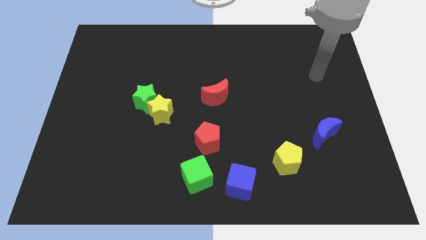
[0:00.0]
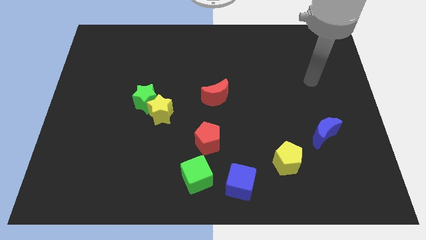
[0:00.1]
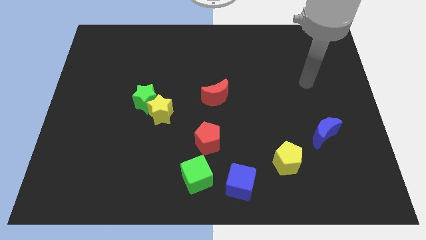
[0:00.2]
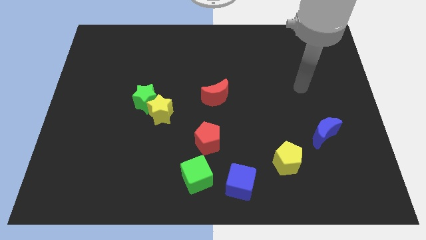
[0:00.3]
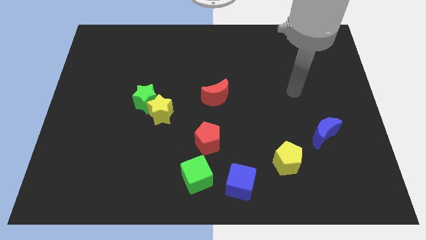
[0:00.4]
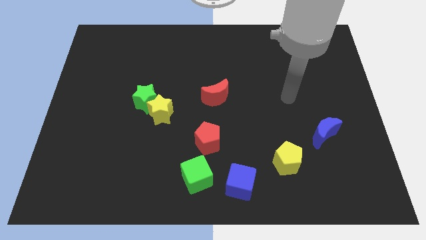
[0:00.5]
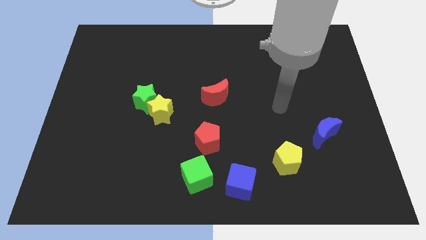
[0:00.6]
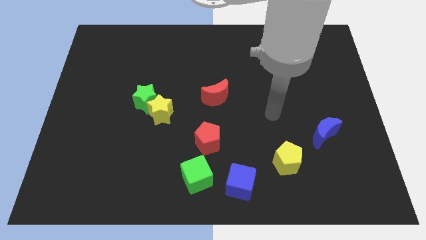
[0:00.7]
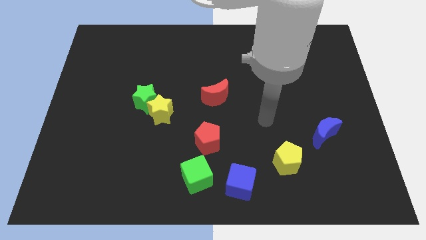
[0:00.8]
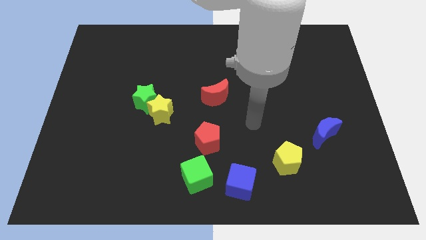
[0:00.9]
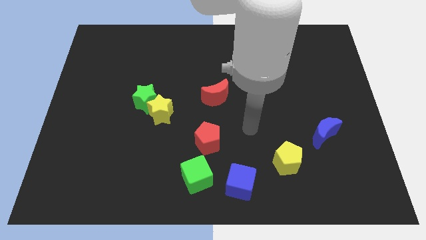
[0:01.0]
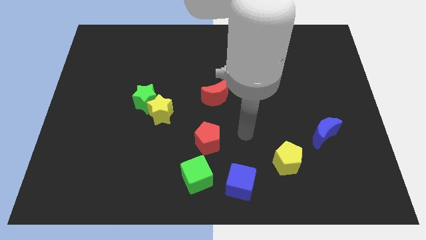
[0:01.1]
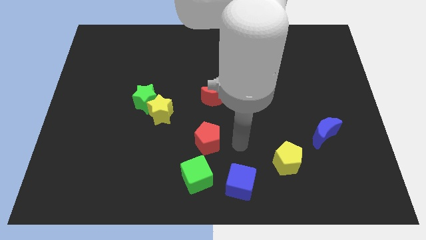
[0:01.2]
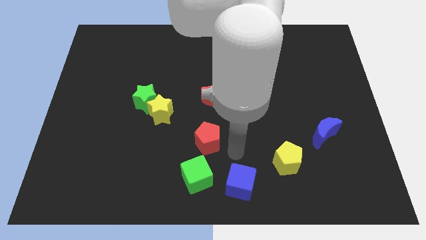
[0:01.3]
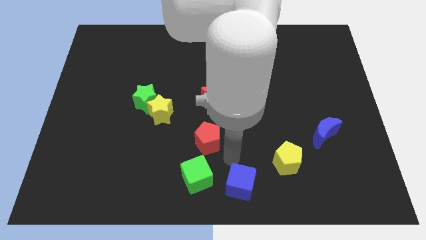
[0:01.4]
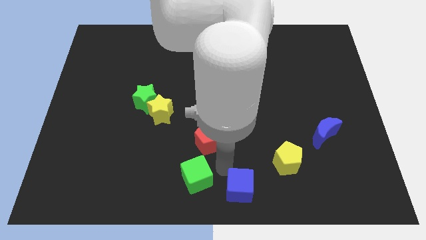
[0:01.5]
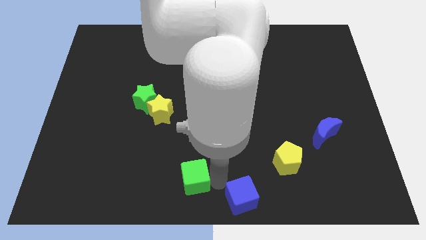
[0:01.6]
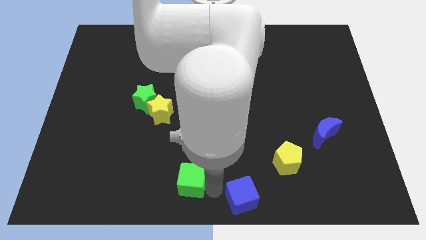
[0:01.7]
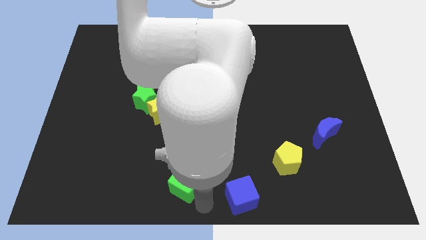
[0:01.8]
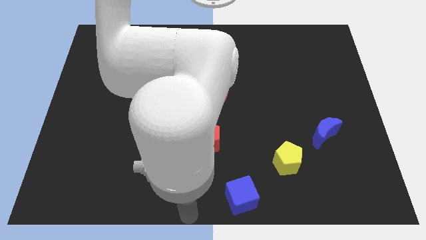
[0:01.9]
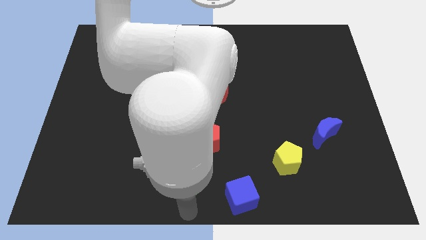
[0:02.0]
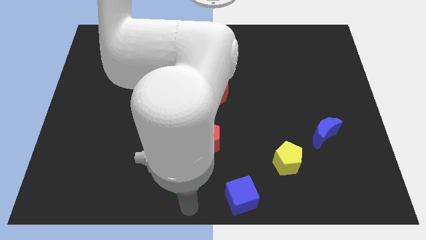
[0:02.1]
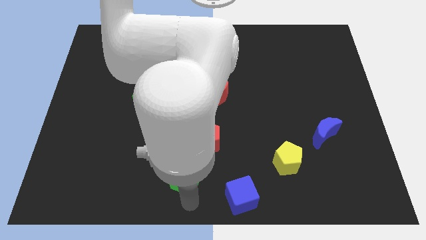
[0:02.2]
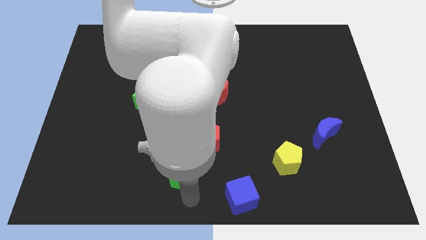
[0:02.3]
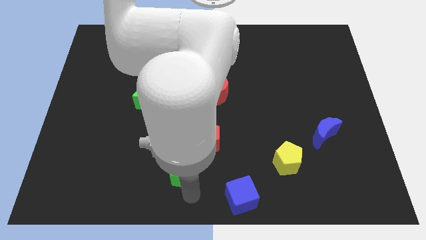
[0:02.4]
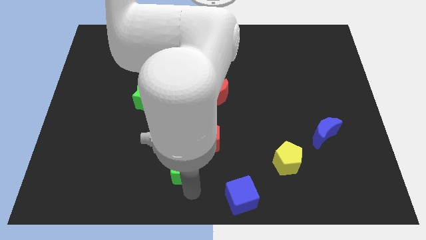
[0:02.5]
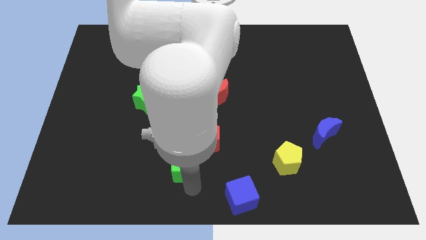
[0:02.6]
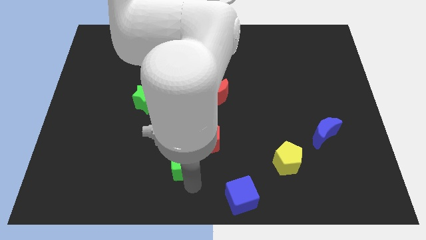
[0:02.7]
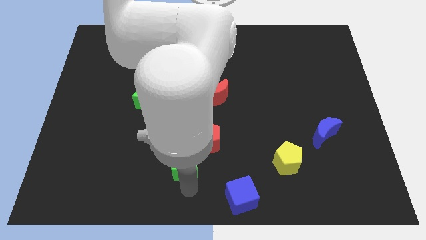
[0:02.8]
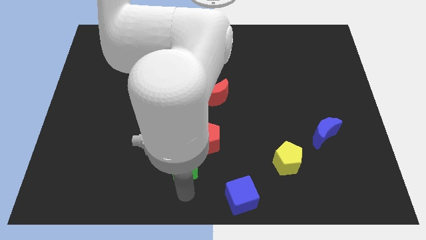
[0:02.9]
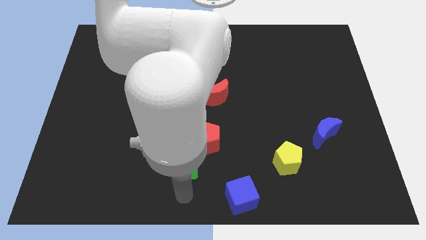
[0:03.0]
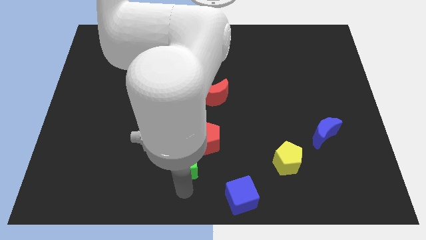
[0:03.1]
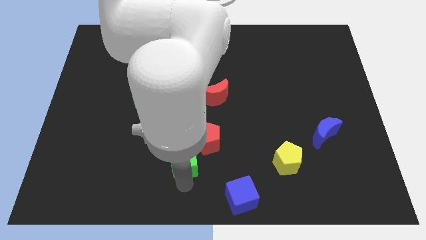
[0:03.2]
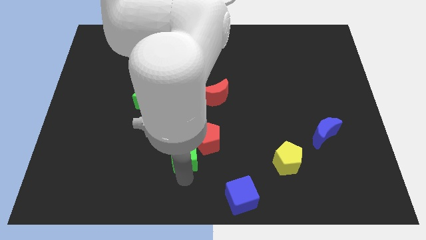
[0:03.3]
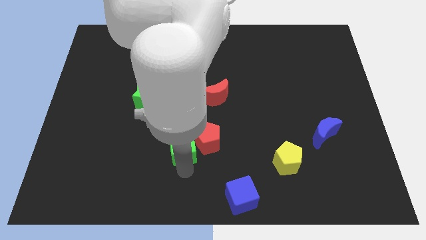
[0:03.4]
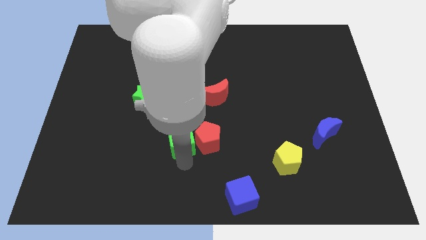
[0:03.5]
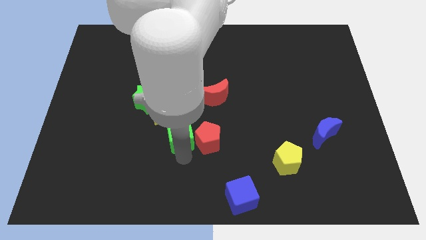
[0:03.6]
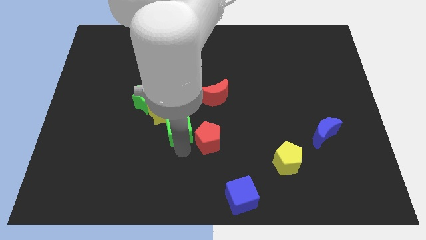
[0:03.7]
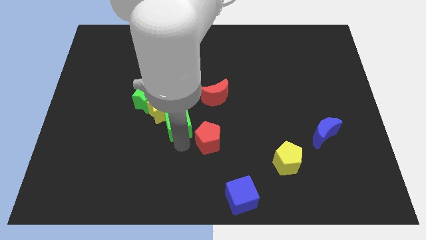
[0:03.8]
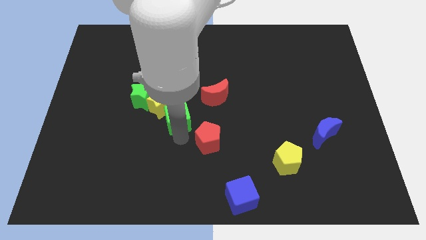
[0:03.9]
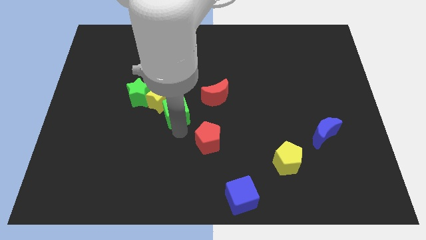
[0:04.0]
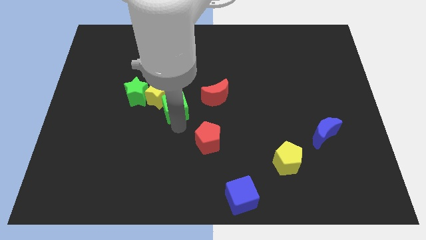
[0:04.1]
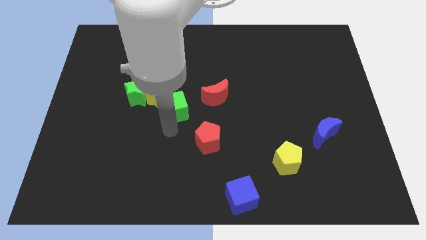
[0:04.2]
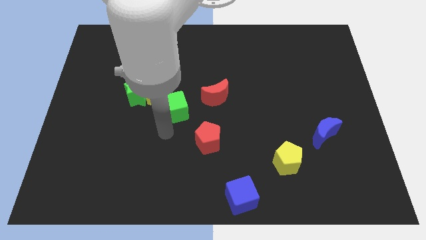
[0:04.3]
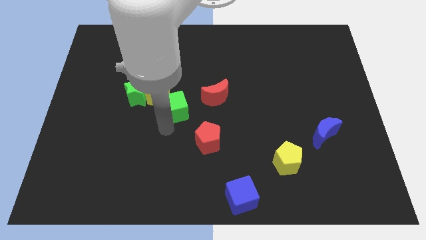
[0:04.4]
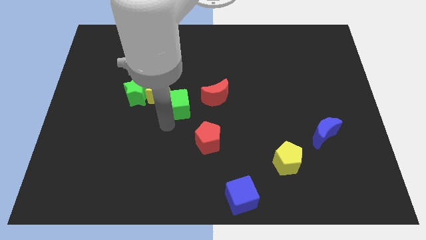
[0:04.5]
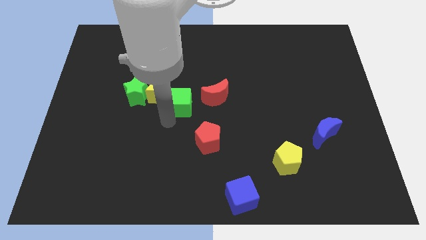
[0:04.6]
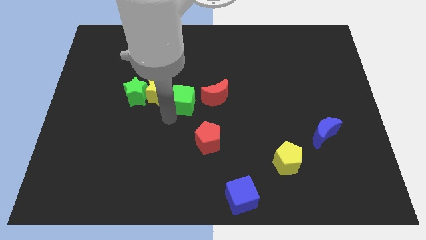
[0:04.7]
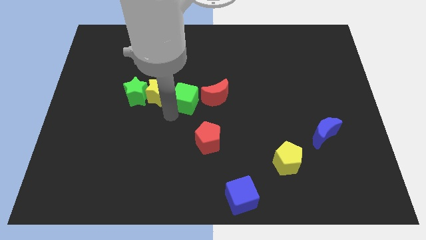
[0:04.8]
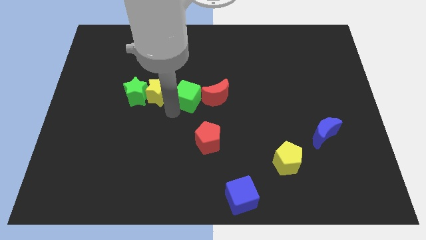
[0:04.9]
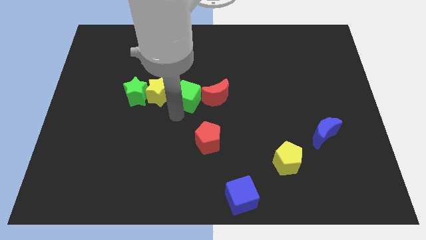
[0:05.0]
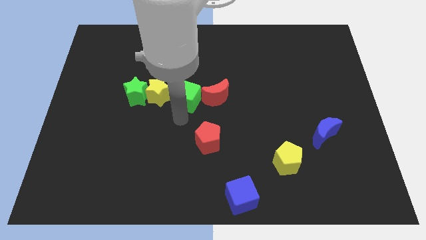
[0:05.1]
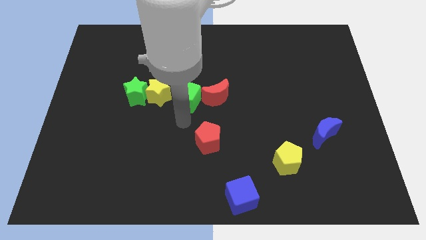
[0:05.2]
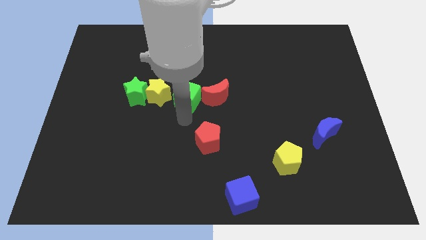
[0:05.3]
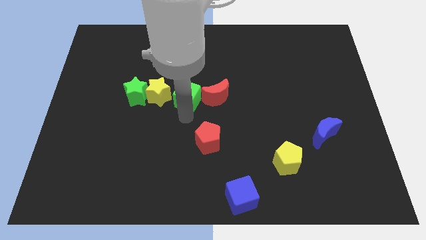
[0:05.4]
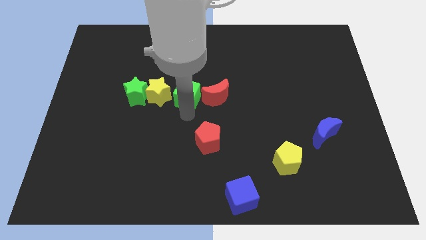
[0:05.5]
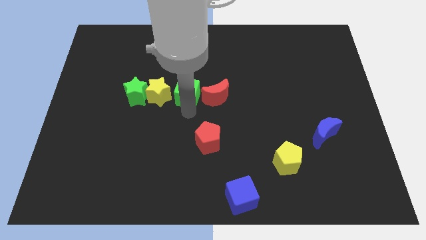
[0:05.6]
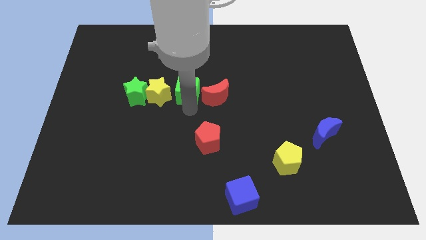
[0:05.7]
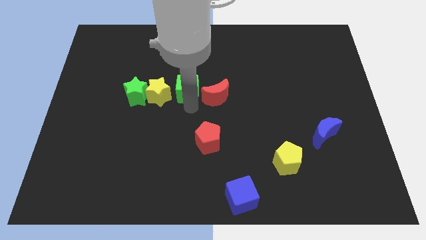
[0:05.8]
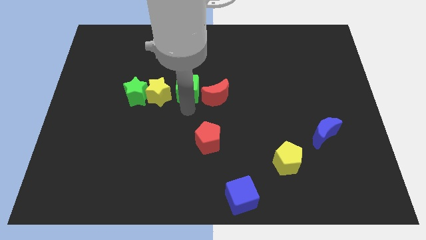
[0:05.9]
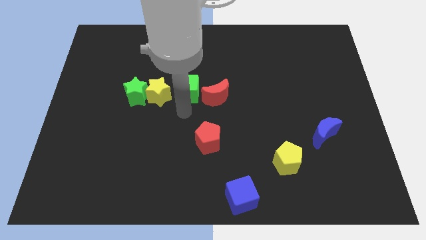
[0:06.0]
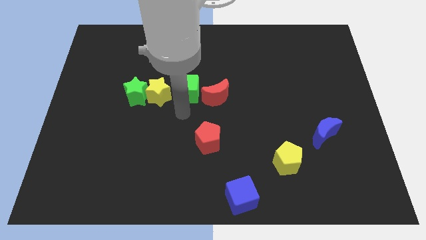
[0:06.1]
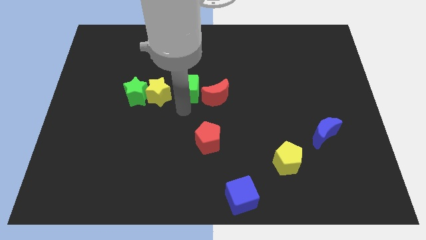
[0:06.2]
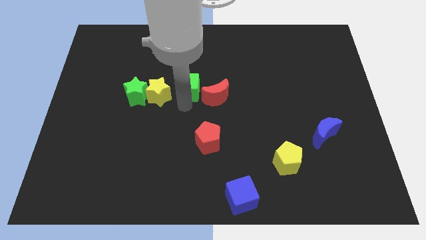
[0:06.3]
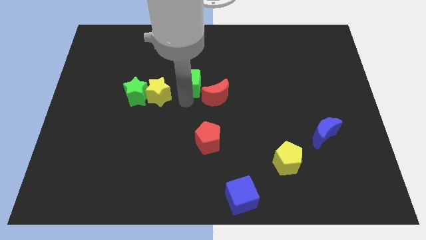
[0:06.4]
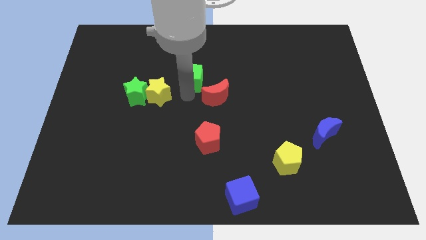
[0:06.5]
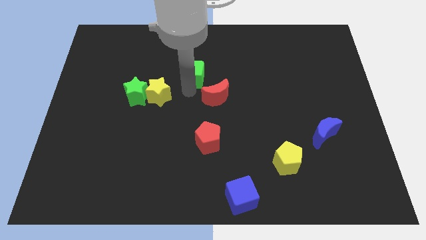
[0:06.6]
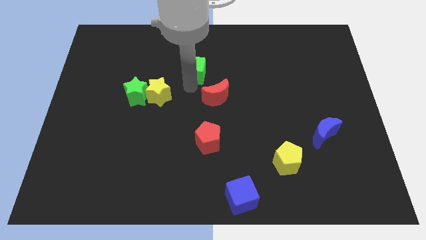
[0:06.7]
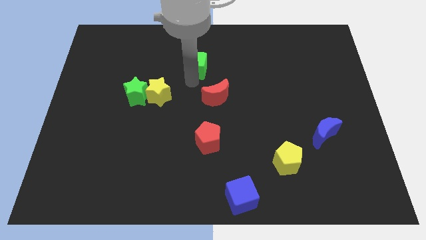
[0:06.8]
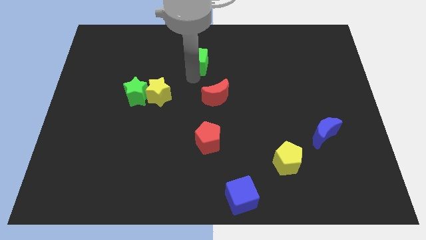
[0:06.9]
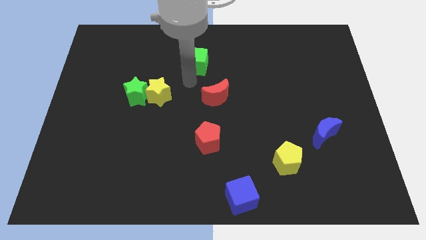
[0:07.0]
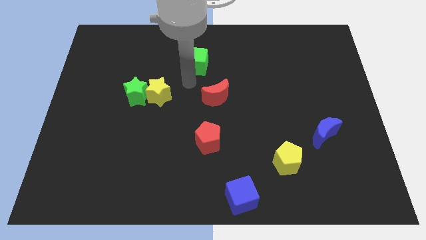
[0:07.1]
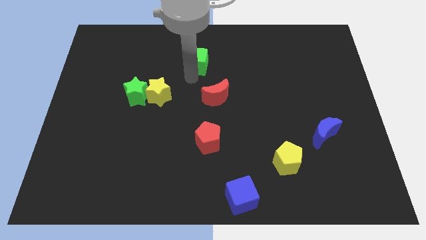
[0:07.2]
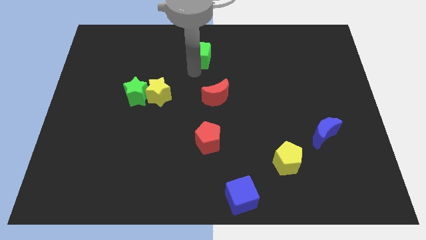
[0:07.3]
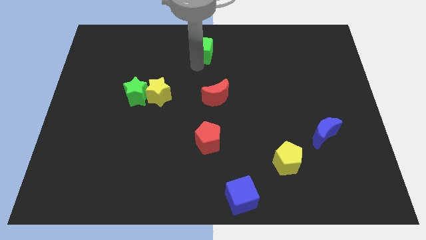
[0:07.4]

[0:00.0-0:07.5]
move the green cube to the top
